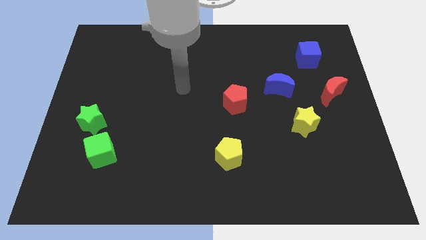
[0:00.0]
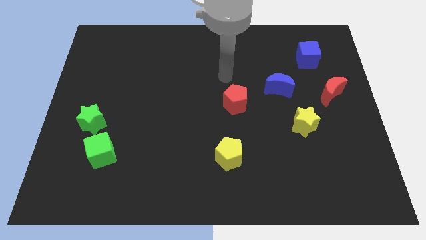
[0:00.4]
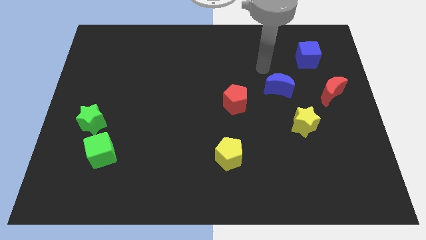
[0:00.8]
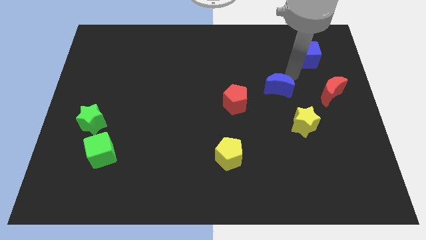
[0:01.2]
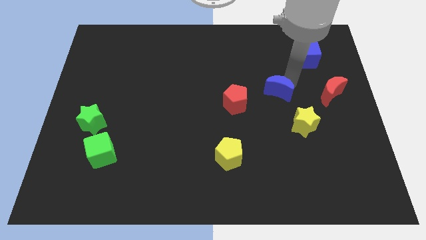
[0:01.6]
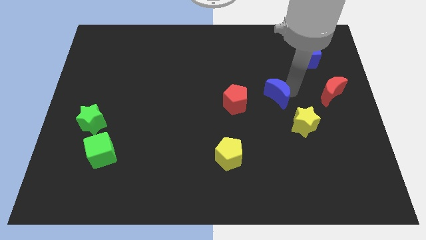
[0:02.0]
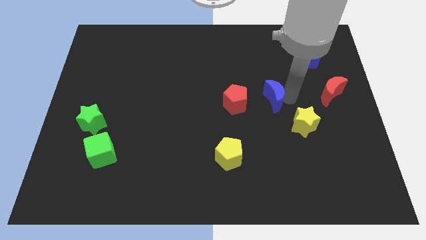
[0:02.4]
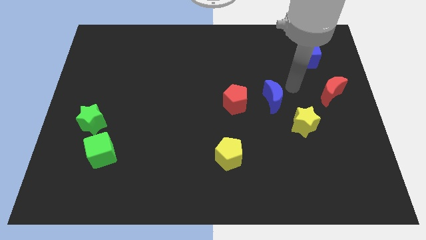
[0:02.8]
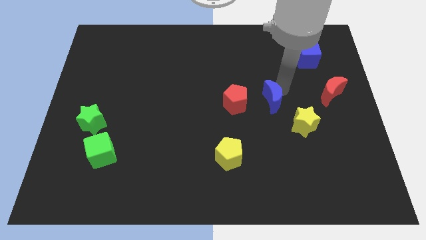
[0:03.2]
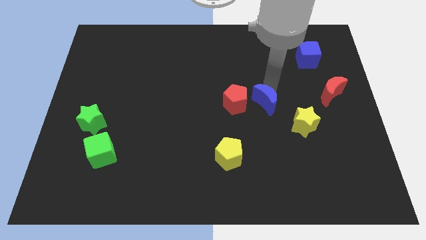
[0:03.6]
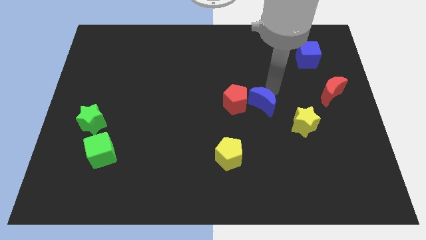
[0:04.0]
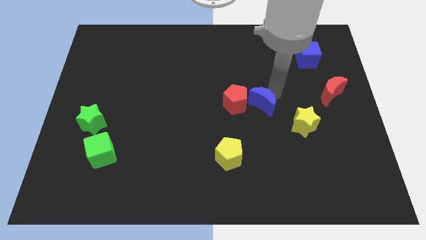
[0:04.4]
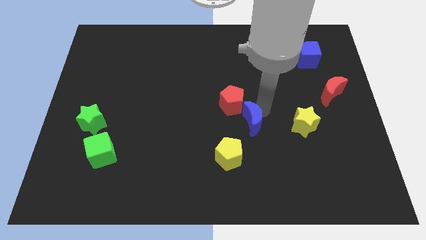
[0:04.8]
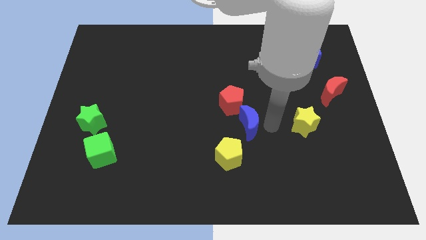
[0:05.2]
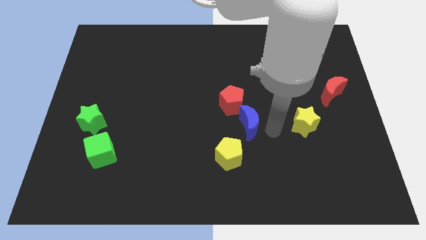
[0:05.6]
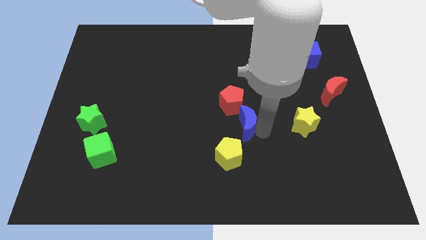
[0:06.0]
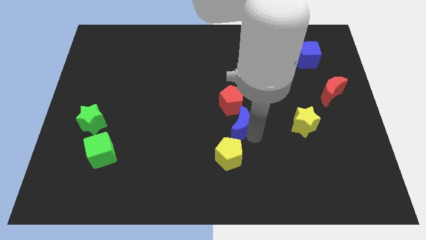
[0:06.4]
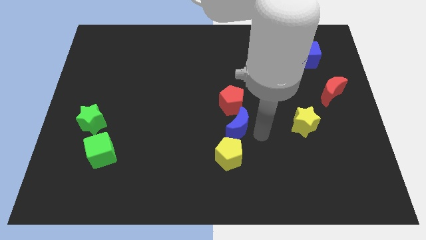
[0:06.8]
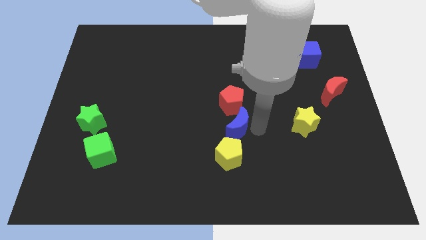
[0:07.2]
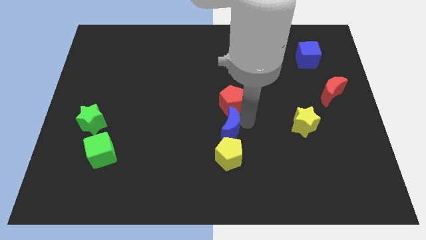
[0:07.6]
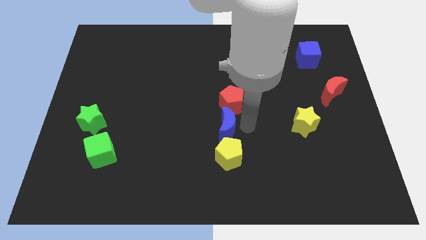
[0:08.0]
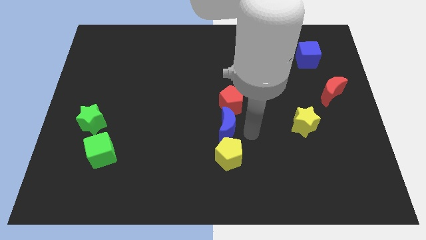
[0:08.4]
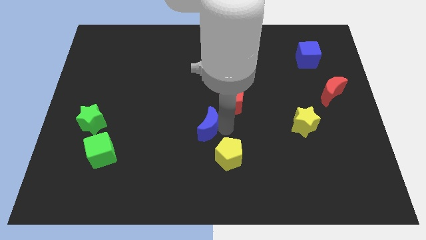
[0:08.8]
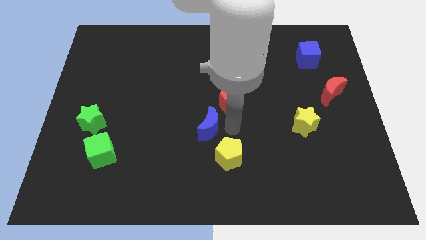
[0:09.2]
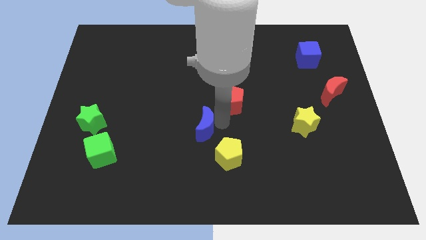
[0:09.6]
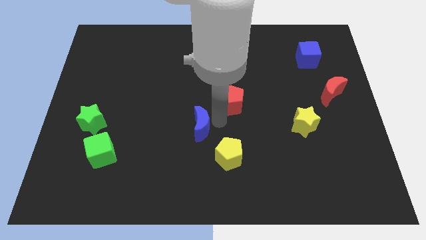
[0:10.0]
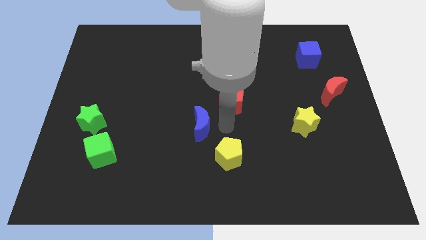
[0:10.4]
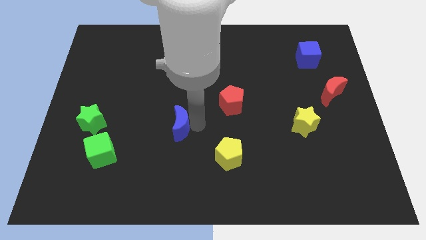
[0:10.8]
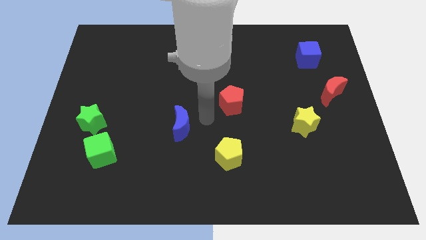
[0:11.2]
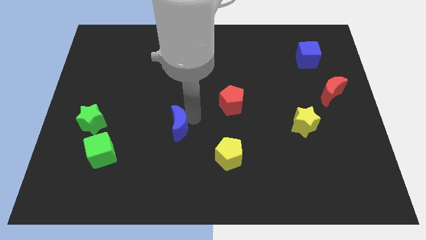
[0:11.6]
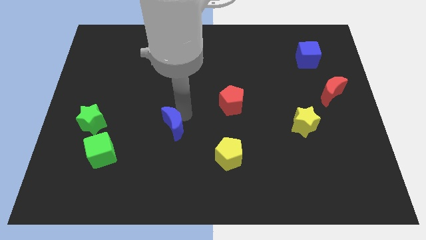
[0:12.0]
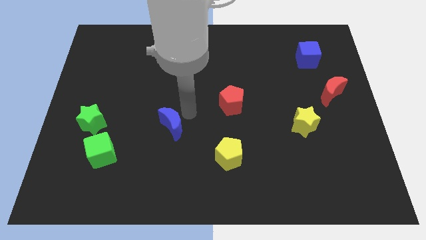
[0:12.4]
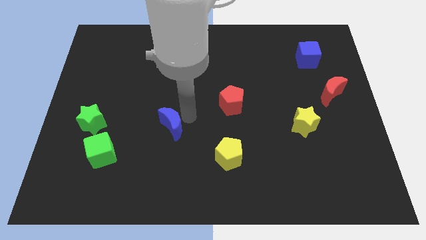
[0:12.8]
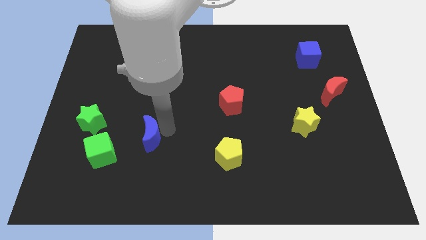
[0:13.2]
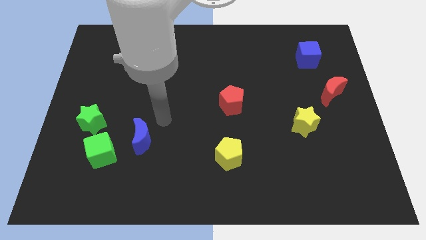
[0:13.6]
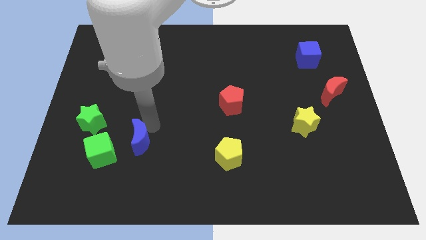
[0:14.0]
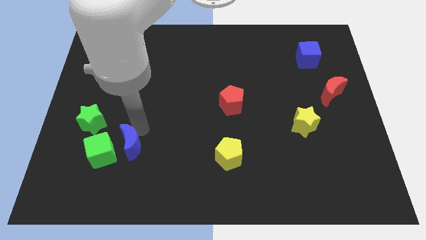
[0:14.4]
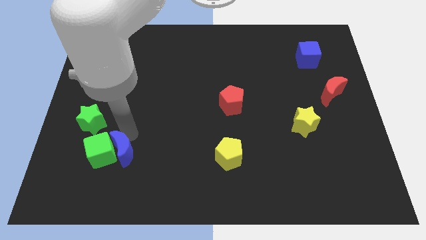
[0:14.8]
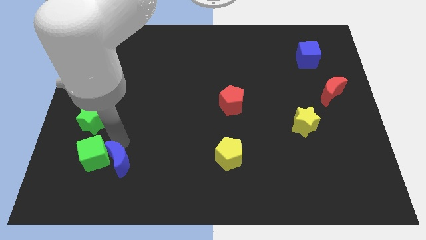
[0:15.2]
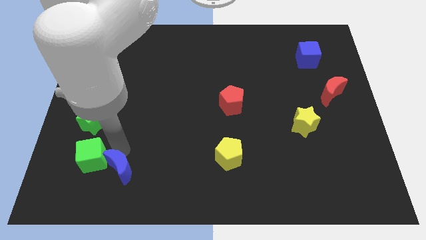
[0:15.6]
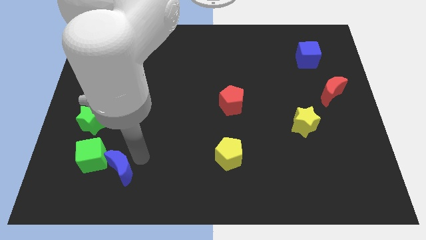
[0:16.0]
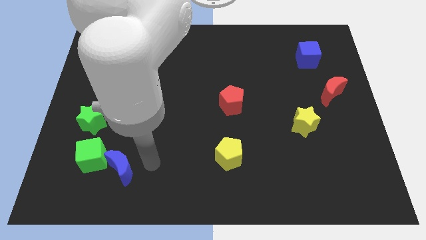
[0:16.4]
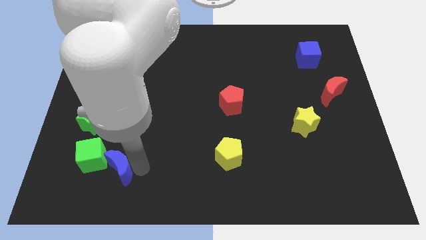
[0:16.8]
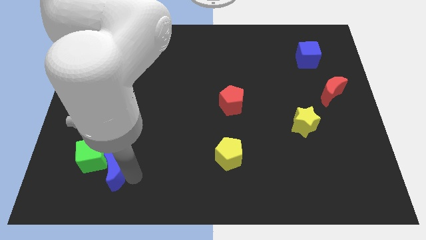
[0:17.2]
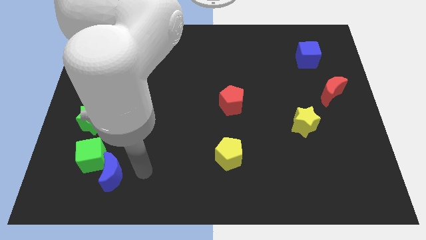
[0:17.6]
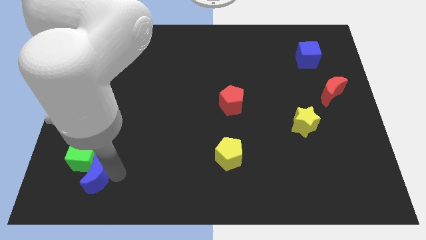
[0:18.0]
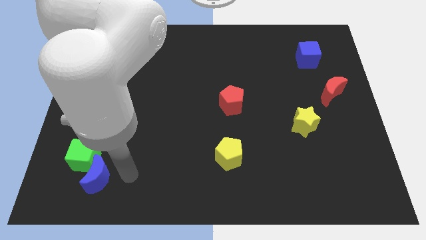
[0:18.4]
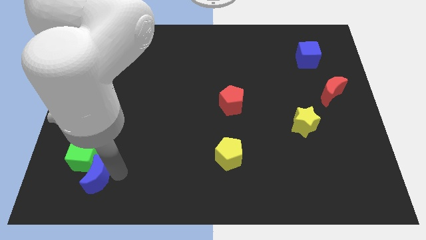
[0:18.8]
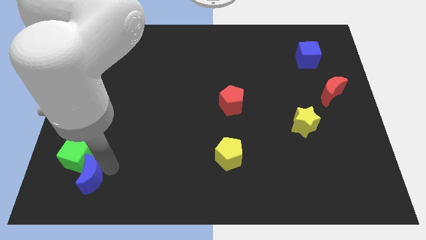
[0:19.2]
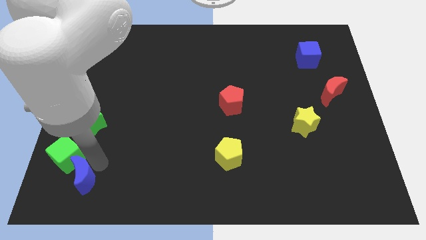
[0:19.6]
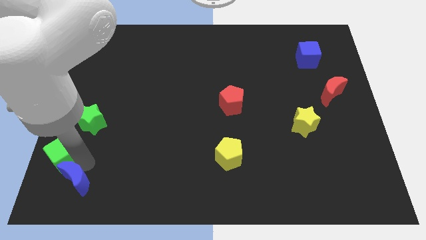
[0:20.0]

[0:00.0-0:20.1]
put the blue moon to the bottom left corner

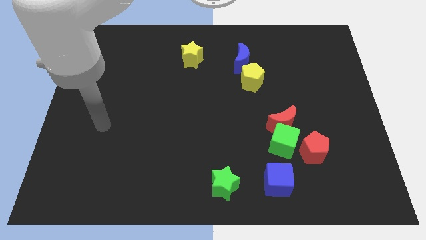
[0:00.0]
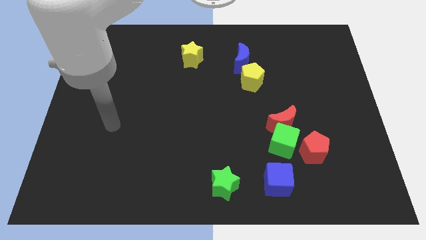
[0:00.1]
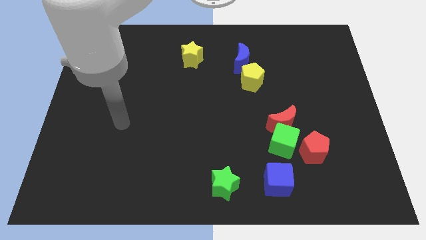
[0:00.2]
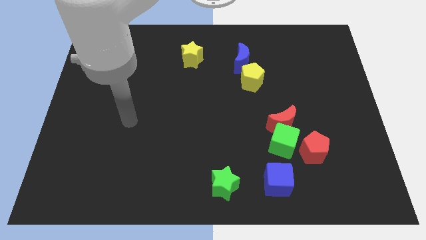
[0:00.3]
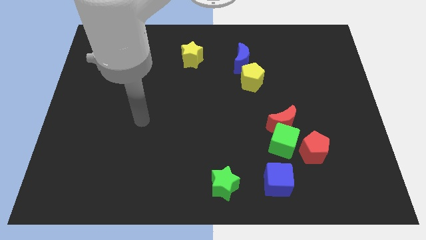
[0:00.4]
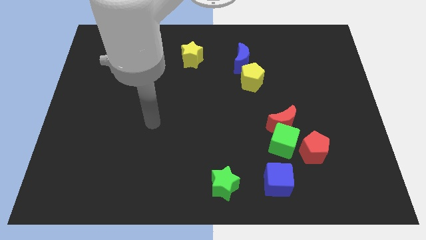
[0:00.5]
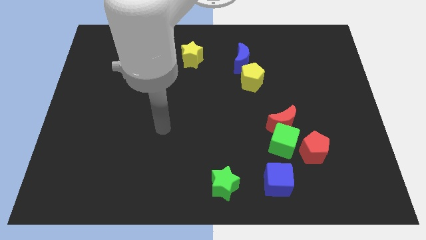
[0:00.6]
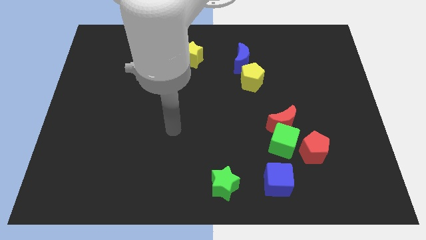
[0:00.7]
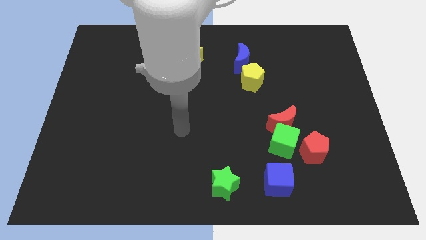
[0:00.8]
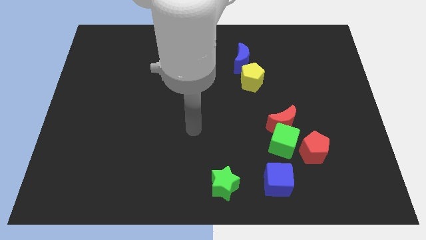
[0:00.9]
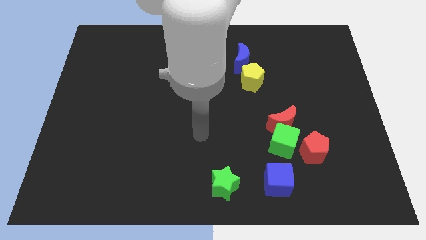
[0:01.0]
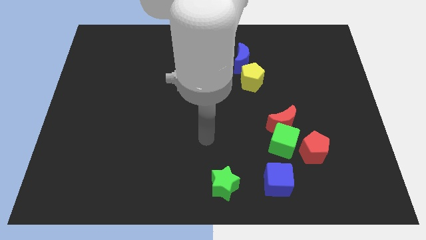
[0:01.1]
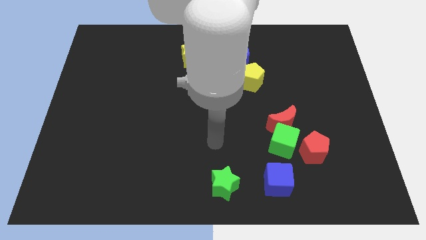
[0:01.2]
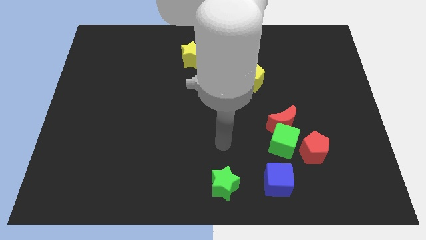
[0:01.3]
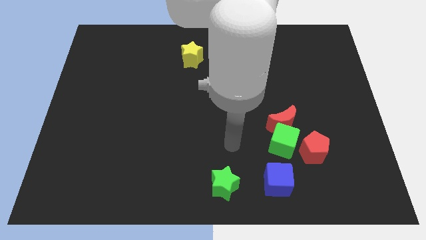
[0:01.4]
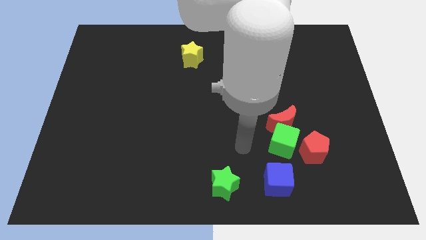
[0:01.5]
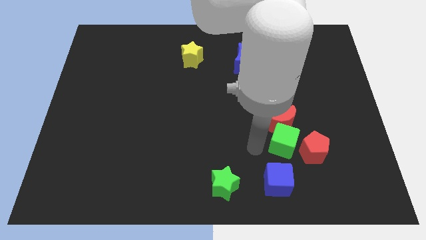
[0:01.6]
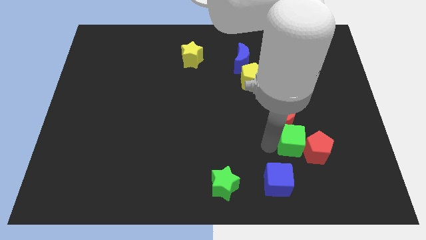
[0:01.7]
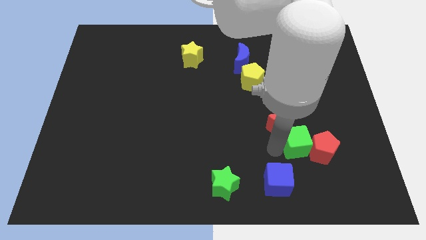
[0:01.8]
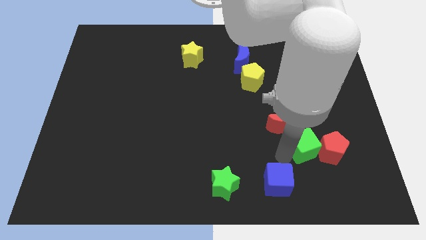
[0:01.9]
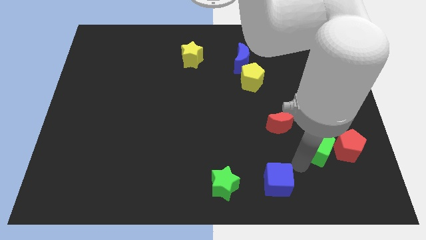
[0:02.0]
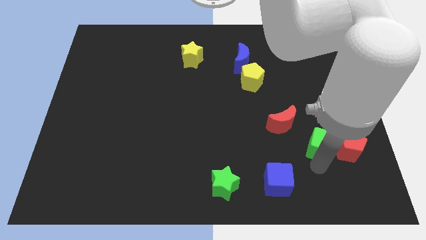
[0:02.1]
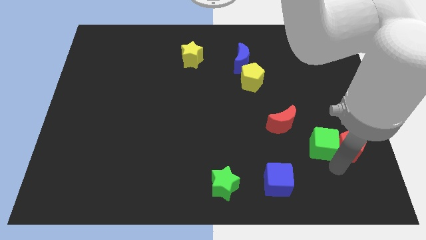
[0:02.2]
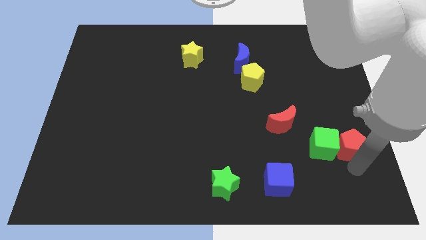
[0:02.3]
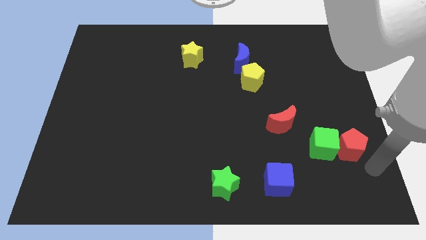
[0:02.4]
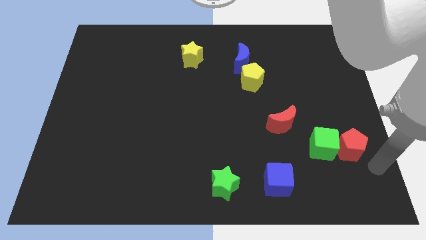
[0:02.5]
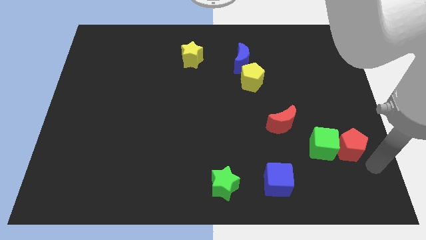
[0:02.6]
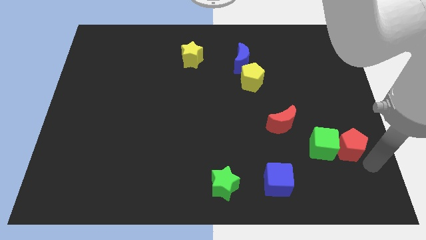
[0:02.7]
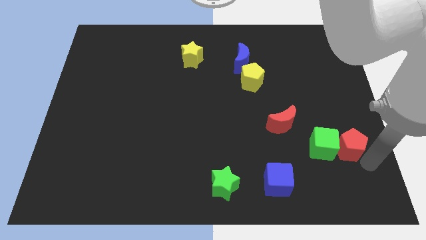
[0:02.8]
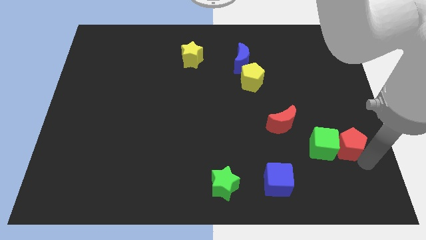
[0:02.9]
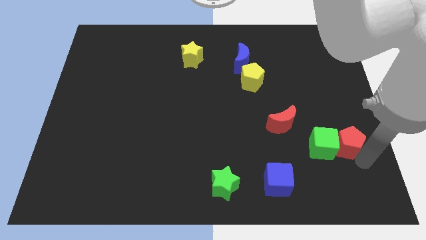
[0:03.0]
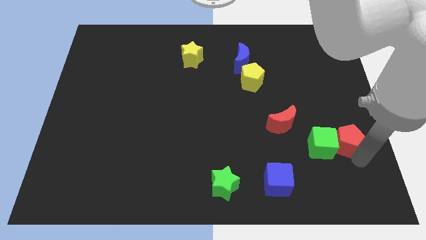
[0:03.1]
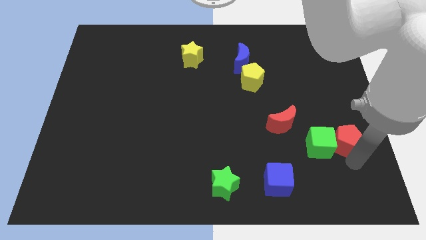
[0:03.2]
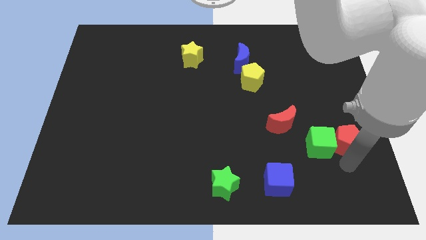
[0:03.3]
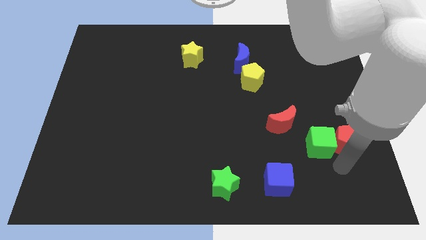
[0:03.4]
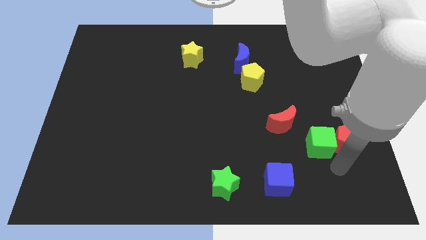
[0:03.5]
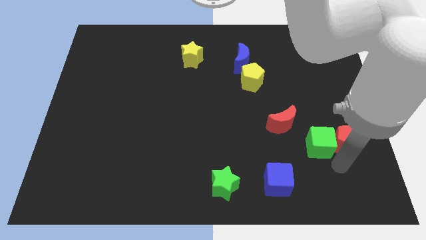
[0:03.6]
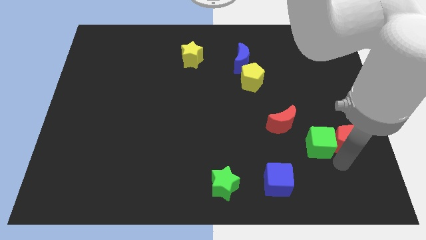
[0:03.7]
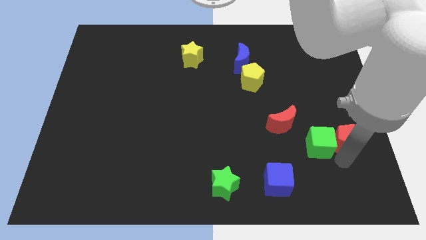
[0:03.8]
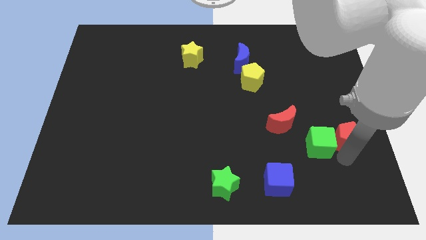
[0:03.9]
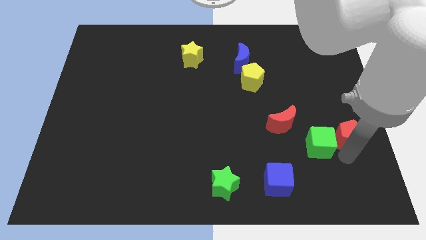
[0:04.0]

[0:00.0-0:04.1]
move the red pentagon to the right side
